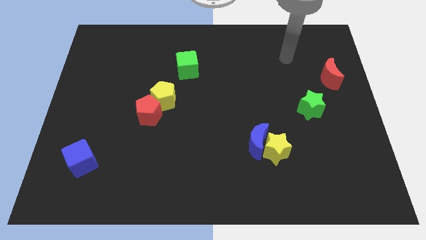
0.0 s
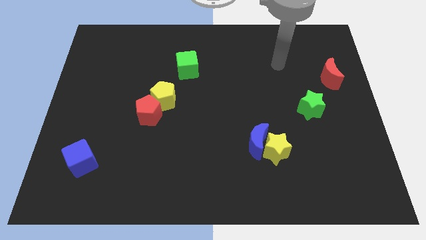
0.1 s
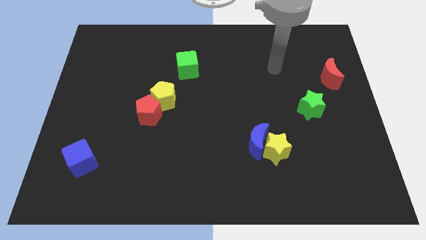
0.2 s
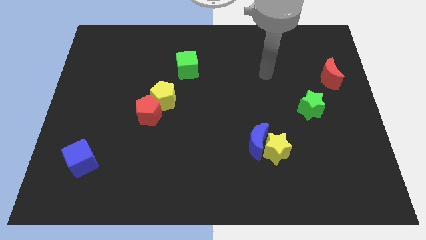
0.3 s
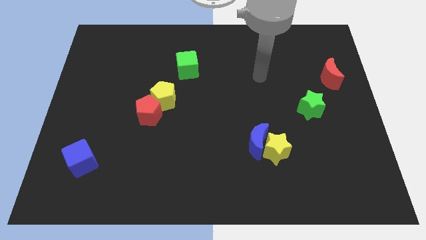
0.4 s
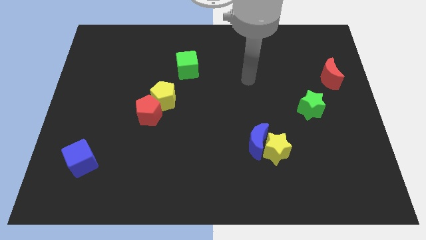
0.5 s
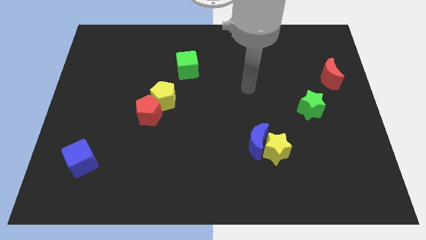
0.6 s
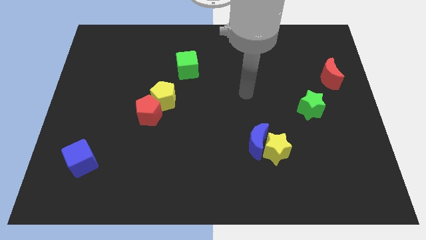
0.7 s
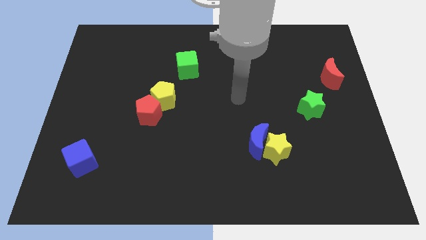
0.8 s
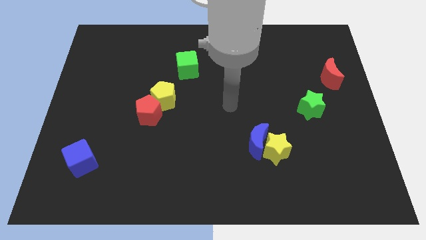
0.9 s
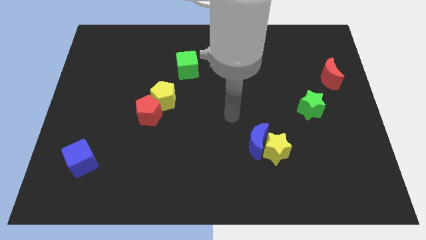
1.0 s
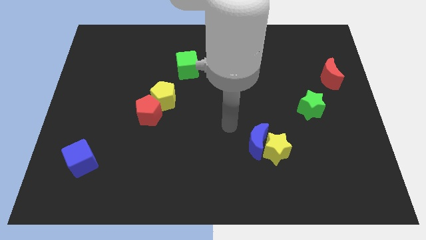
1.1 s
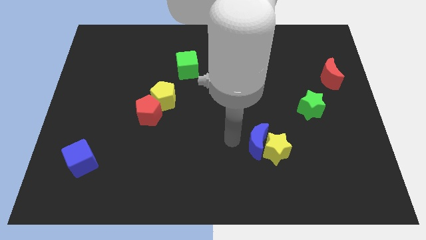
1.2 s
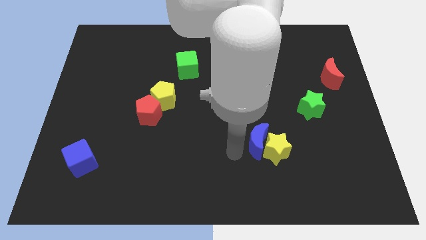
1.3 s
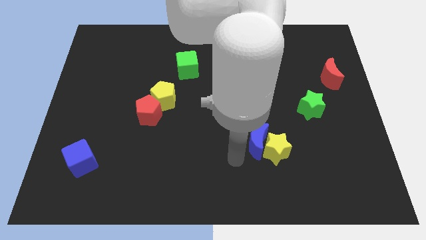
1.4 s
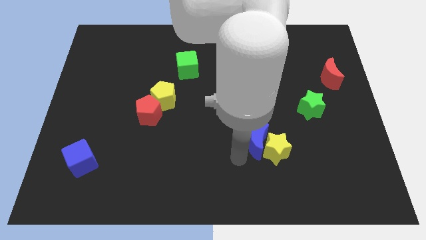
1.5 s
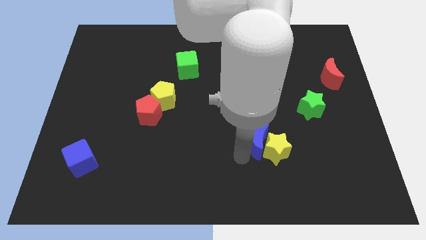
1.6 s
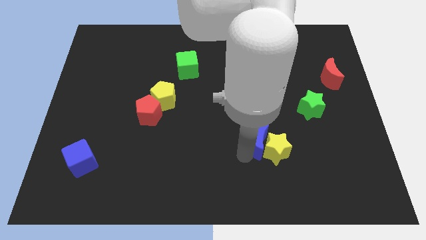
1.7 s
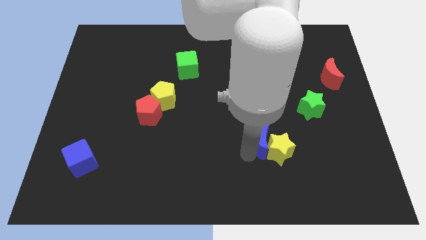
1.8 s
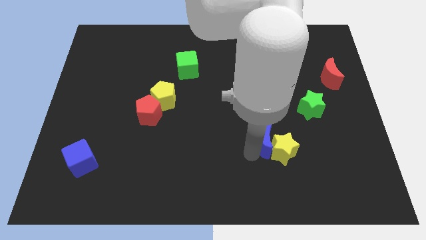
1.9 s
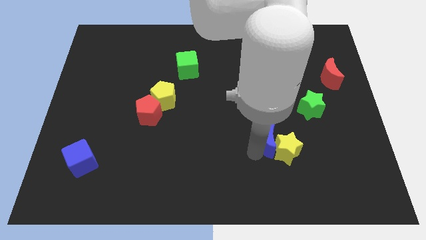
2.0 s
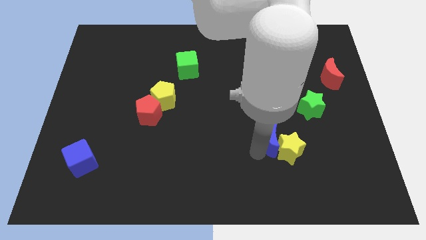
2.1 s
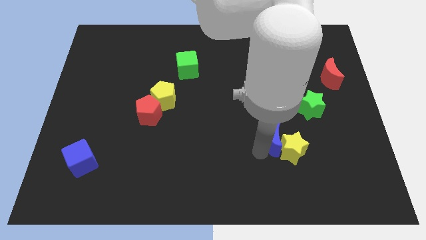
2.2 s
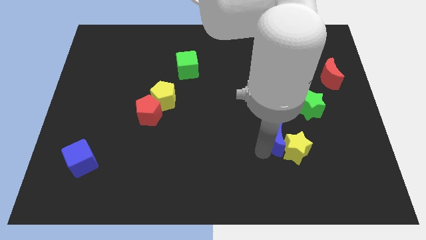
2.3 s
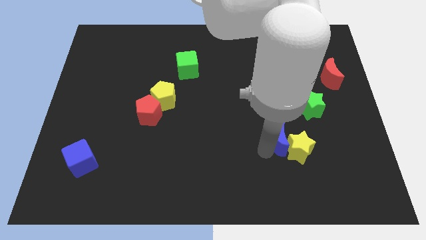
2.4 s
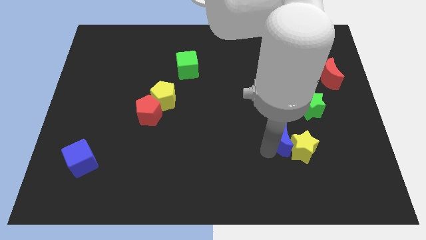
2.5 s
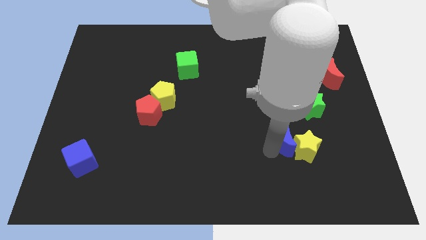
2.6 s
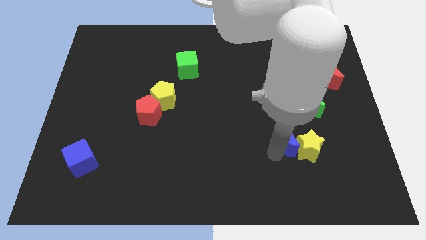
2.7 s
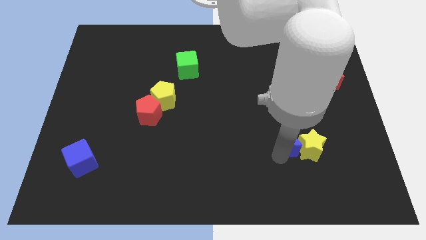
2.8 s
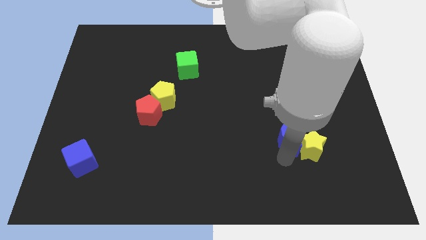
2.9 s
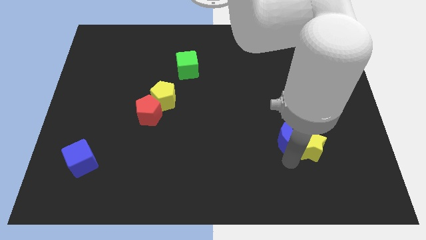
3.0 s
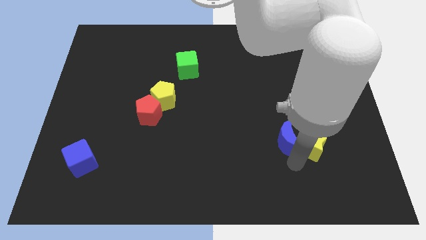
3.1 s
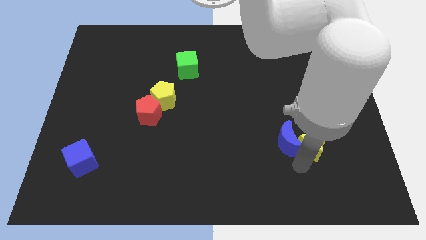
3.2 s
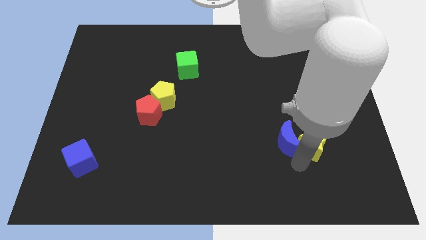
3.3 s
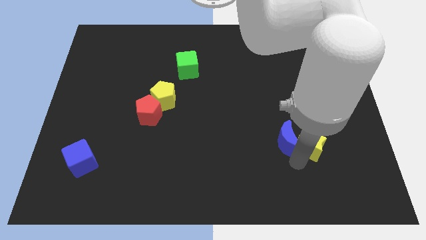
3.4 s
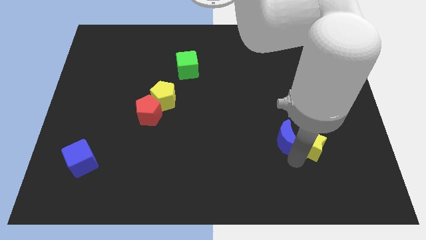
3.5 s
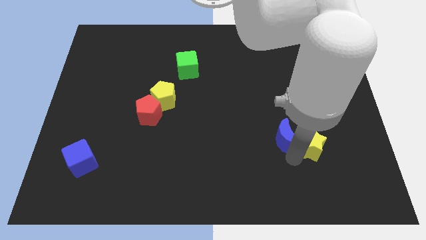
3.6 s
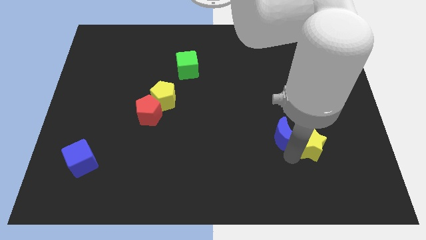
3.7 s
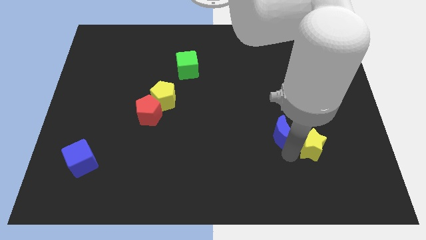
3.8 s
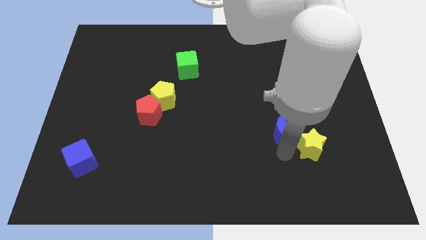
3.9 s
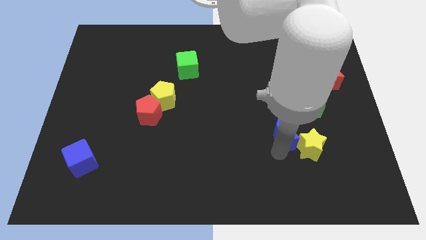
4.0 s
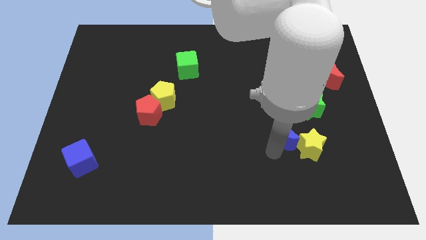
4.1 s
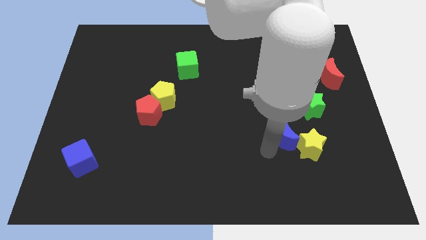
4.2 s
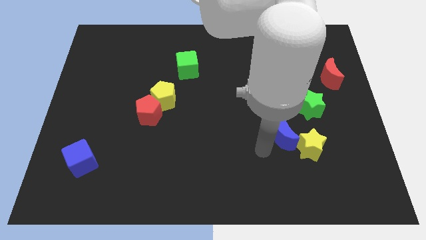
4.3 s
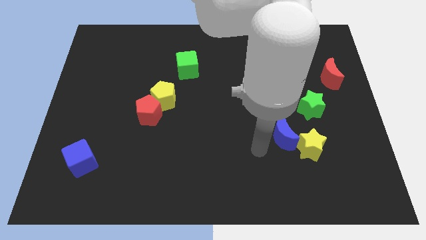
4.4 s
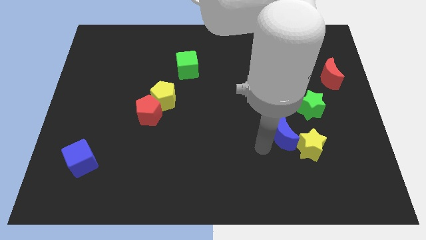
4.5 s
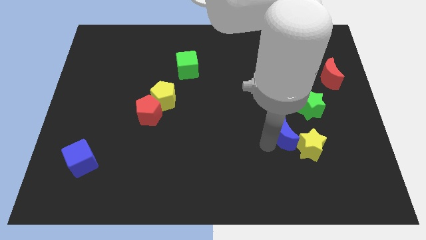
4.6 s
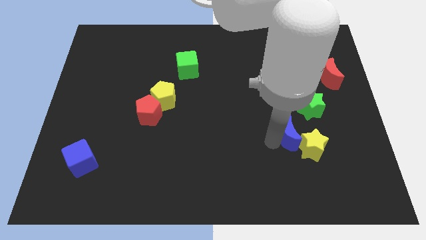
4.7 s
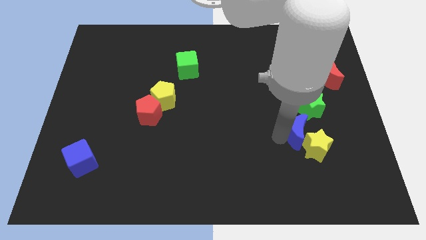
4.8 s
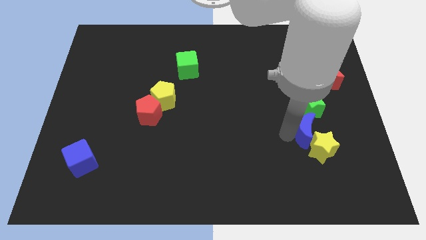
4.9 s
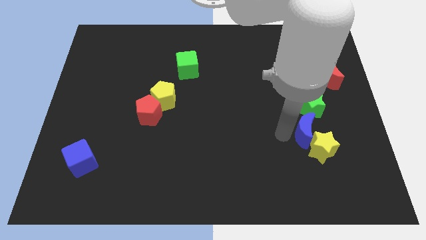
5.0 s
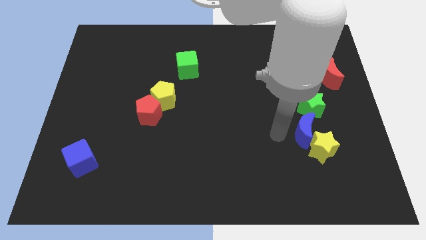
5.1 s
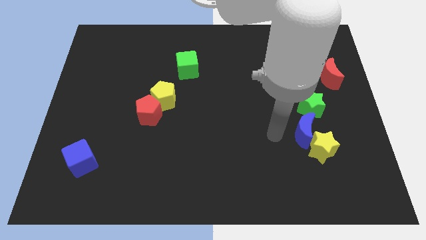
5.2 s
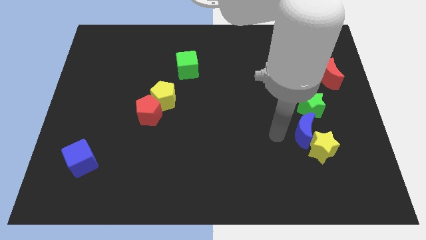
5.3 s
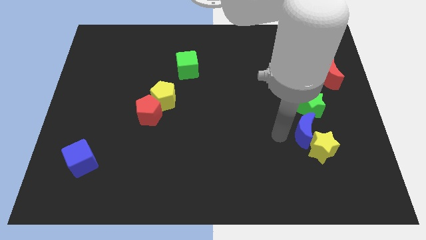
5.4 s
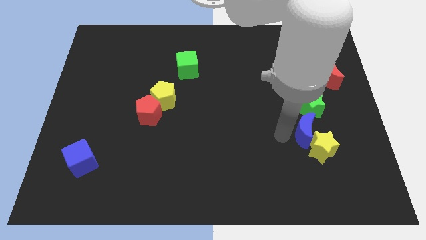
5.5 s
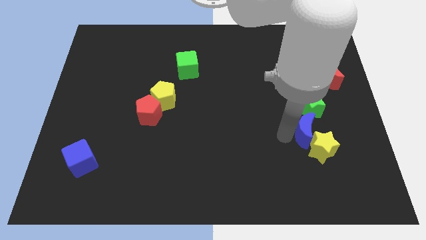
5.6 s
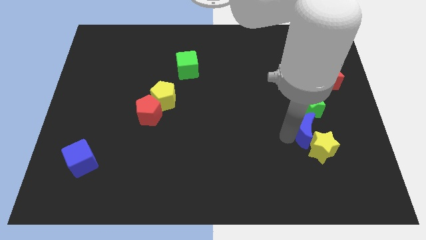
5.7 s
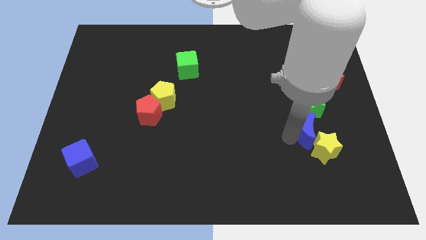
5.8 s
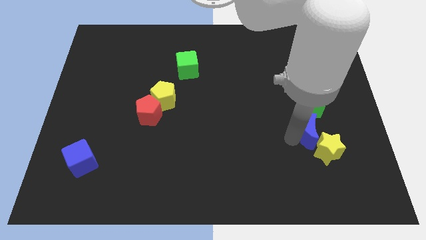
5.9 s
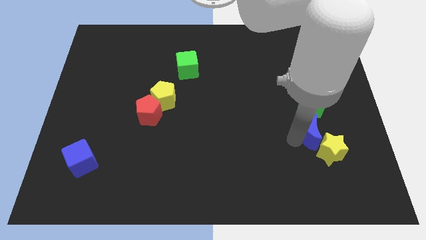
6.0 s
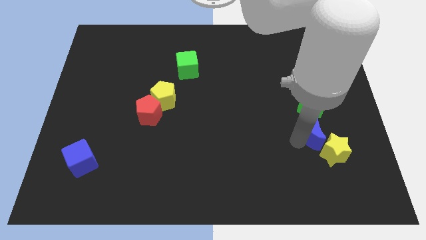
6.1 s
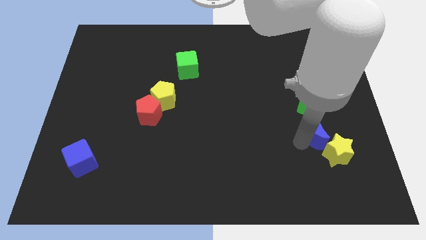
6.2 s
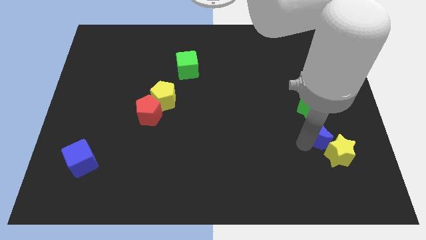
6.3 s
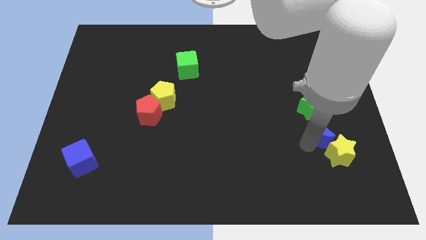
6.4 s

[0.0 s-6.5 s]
move the blue moon diagonally down and to the right of the green star
